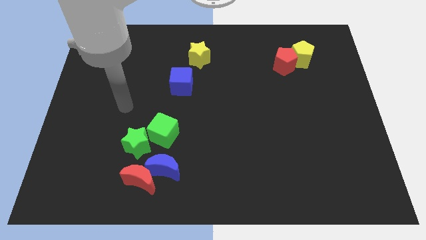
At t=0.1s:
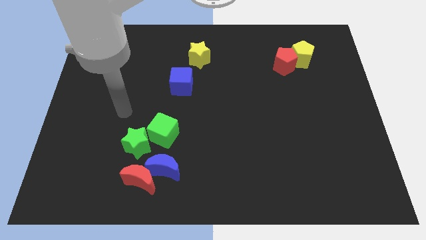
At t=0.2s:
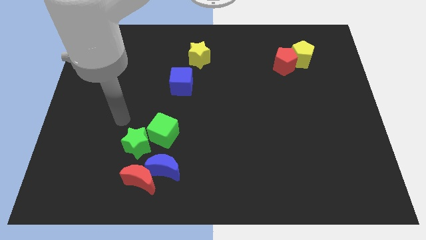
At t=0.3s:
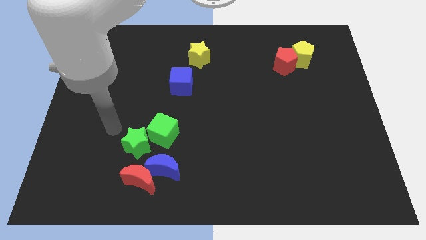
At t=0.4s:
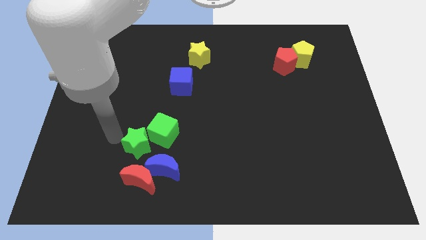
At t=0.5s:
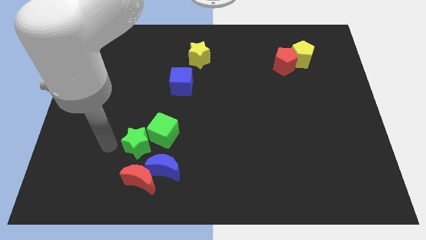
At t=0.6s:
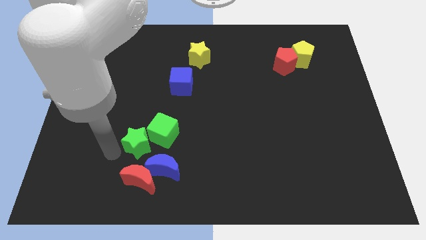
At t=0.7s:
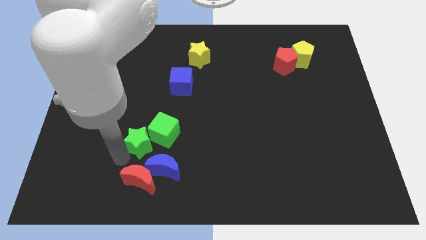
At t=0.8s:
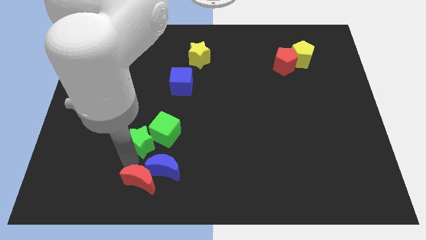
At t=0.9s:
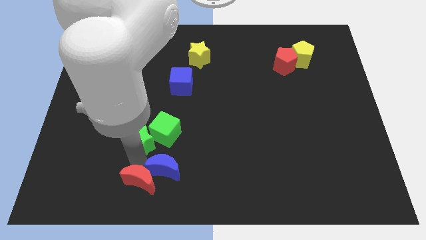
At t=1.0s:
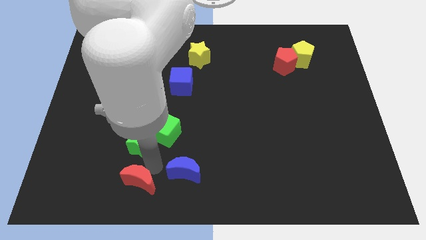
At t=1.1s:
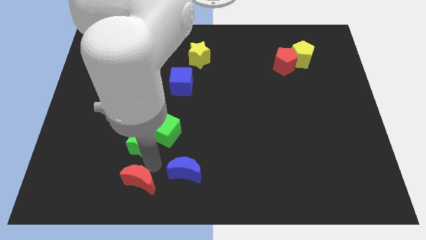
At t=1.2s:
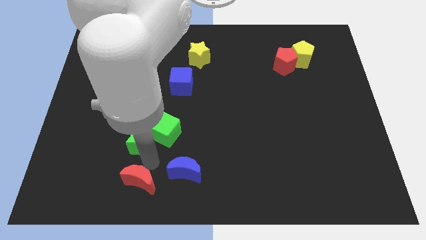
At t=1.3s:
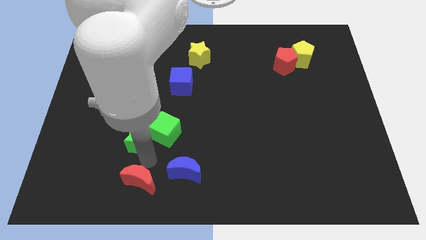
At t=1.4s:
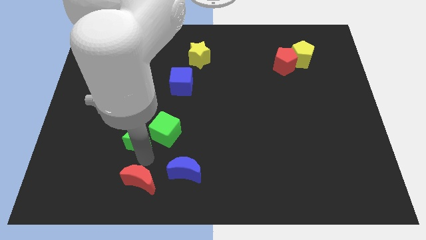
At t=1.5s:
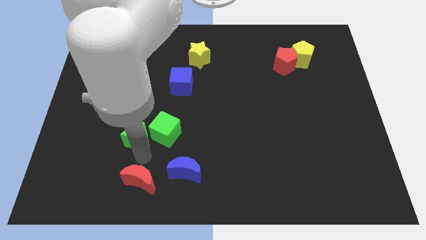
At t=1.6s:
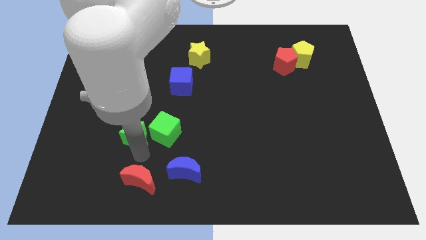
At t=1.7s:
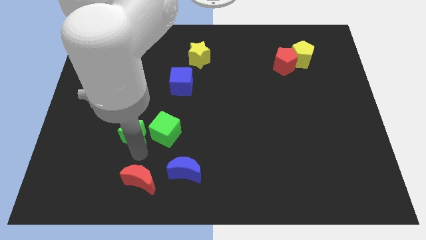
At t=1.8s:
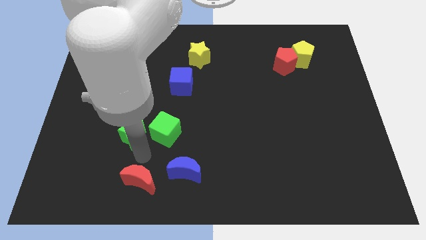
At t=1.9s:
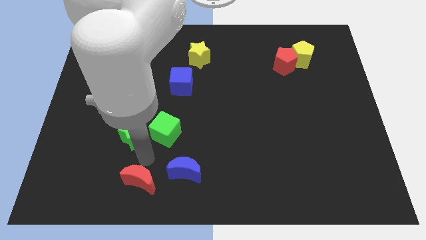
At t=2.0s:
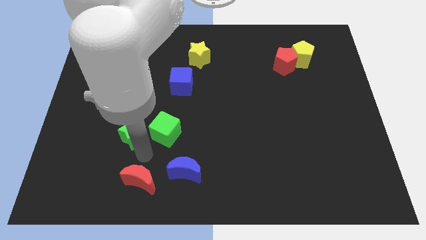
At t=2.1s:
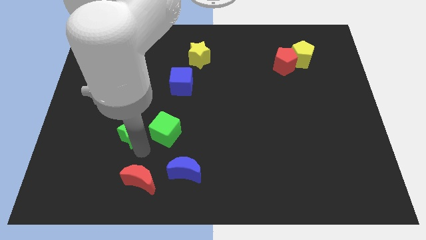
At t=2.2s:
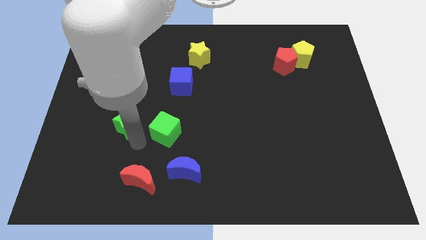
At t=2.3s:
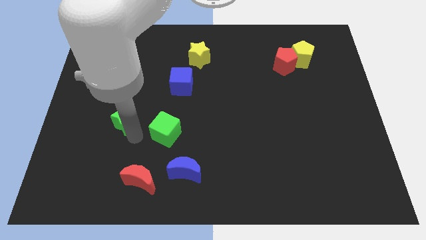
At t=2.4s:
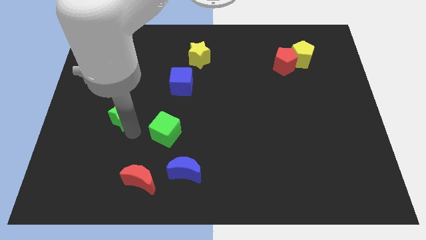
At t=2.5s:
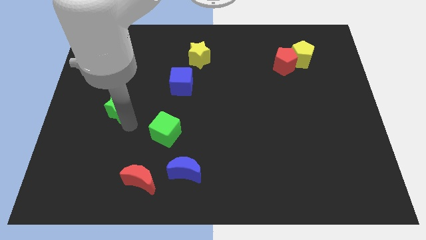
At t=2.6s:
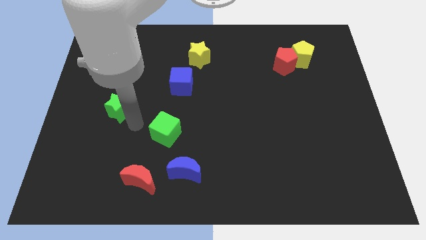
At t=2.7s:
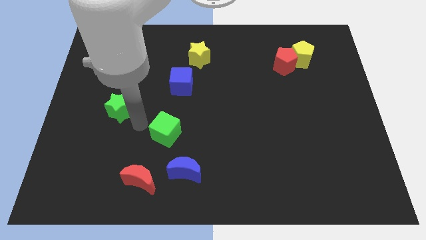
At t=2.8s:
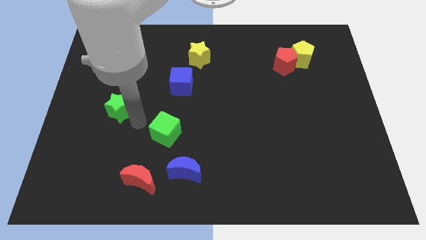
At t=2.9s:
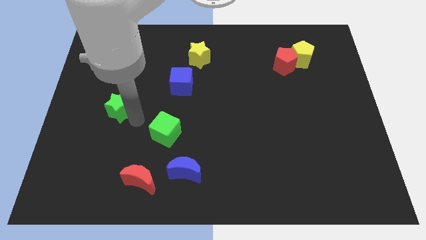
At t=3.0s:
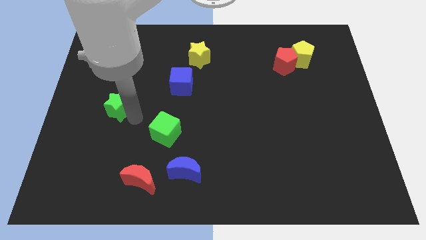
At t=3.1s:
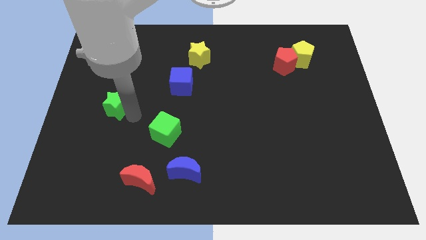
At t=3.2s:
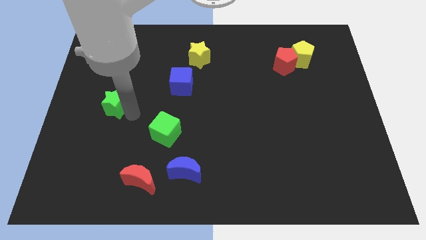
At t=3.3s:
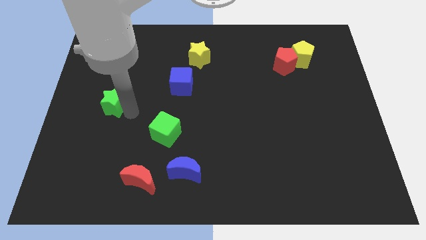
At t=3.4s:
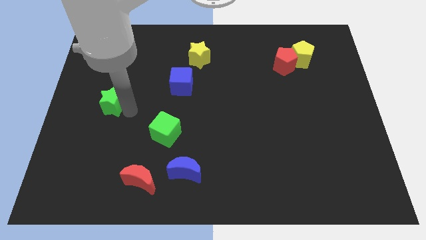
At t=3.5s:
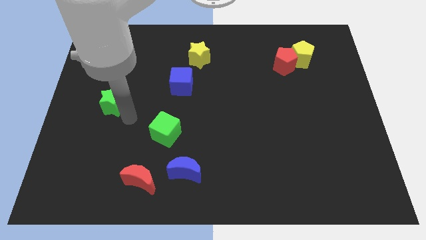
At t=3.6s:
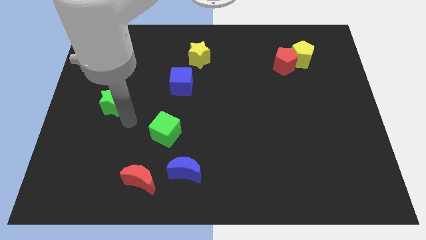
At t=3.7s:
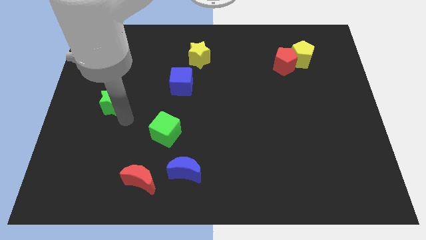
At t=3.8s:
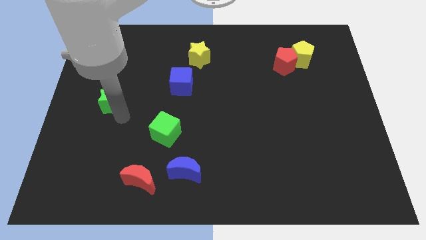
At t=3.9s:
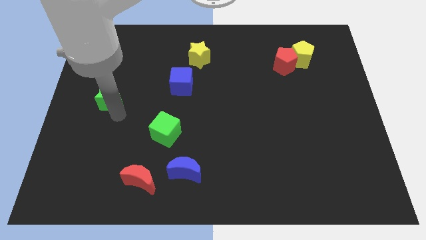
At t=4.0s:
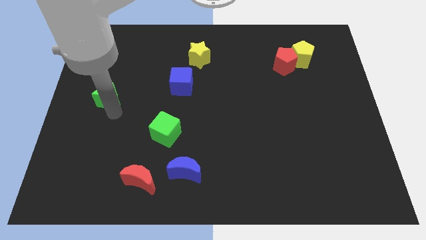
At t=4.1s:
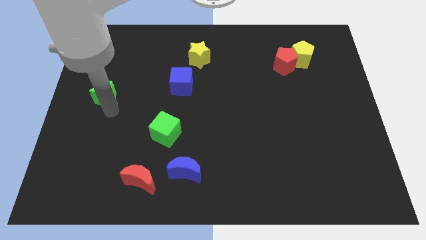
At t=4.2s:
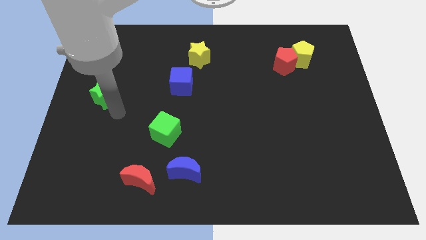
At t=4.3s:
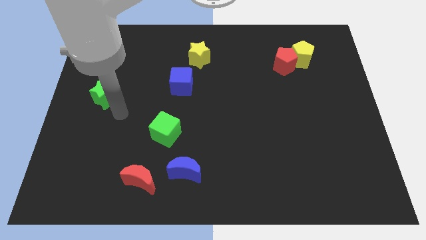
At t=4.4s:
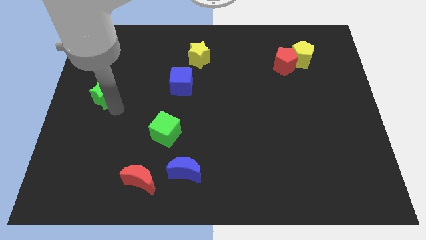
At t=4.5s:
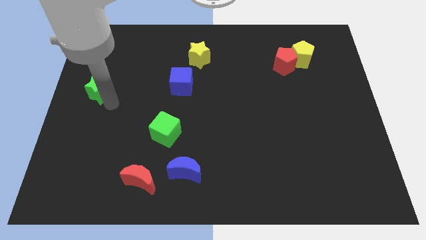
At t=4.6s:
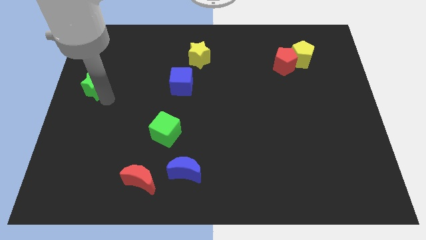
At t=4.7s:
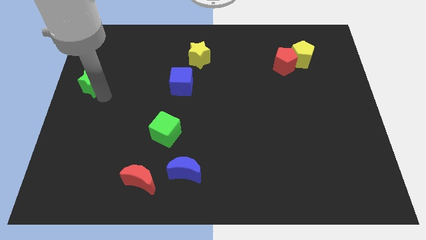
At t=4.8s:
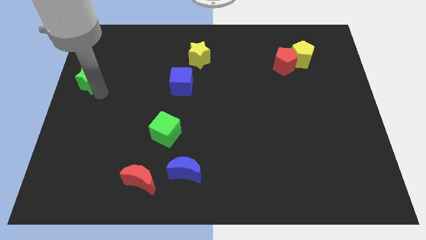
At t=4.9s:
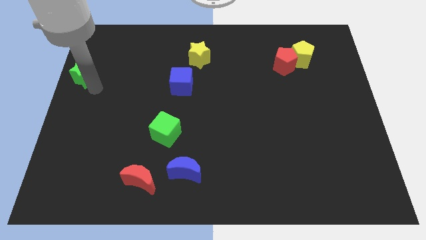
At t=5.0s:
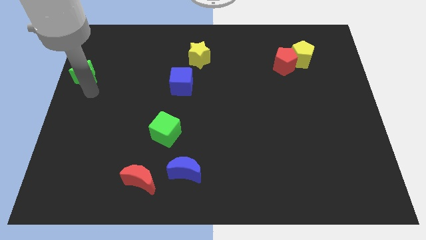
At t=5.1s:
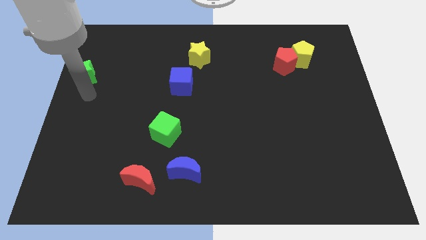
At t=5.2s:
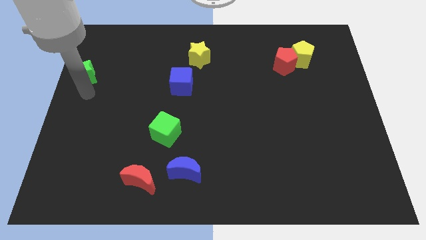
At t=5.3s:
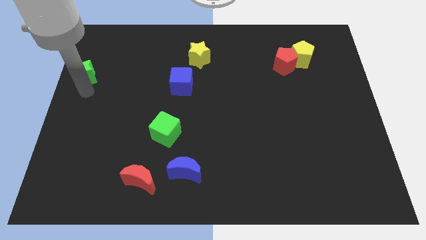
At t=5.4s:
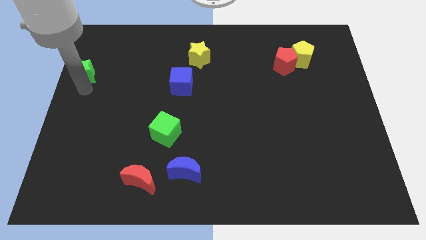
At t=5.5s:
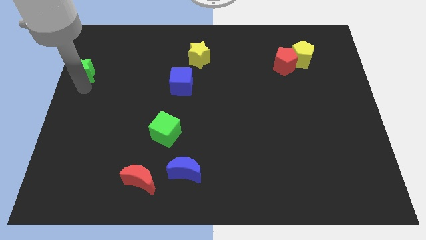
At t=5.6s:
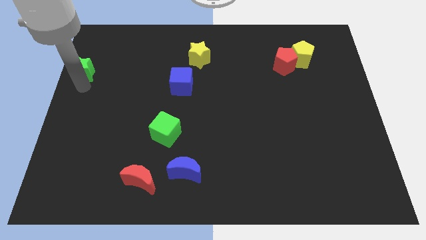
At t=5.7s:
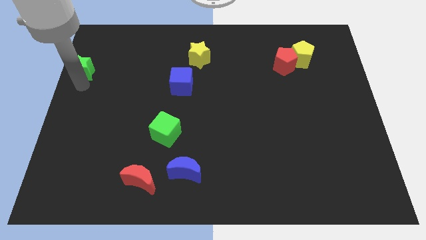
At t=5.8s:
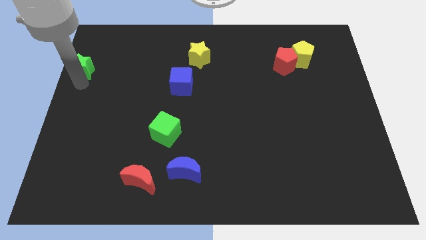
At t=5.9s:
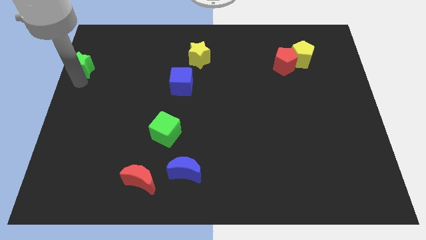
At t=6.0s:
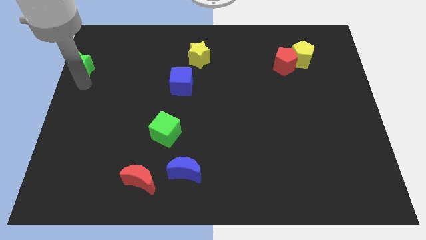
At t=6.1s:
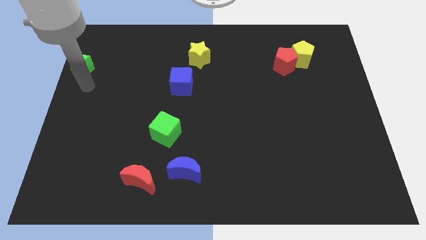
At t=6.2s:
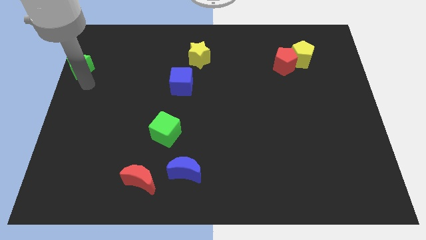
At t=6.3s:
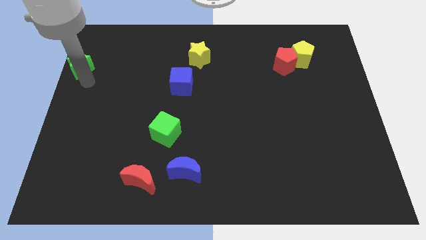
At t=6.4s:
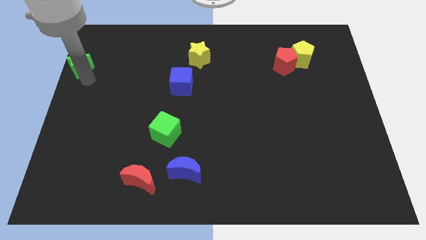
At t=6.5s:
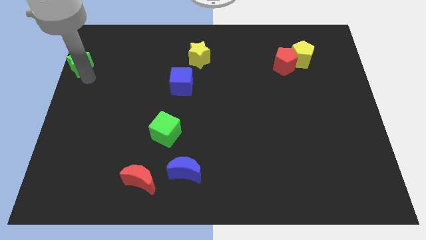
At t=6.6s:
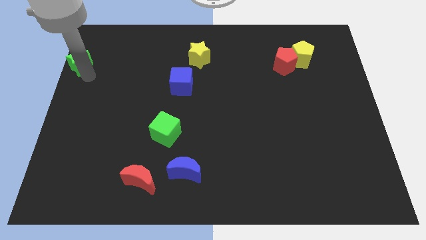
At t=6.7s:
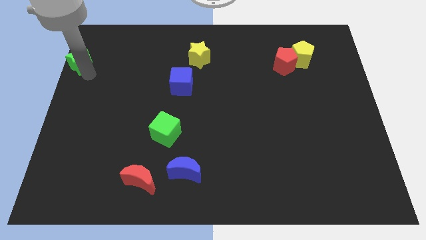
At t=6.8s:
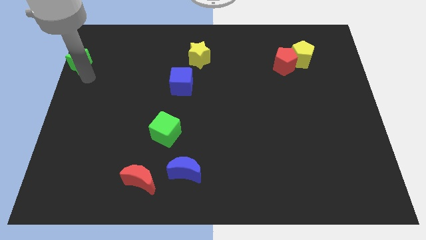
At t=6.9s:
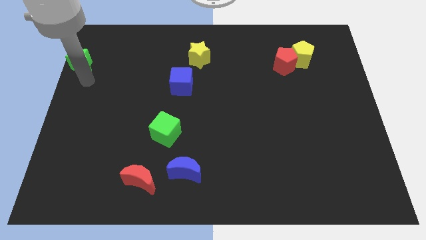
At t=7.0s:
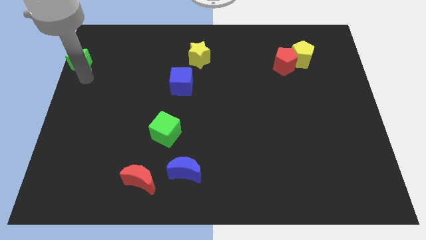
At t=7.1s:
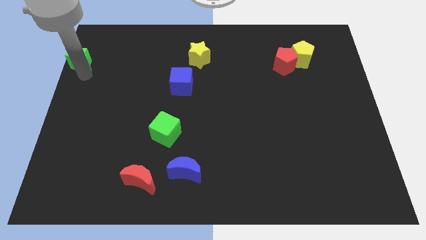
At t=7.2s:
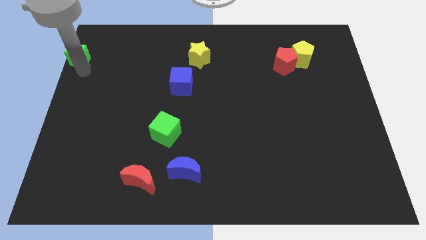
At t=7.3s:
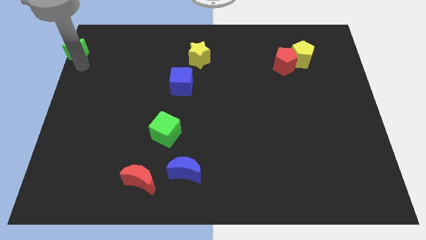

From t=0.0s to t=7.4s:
push the green star to the upper left corner
